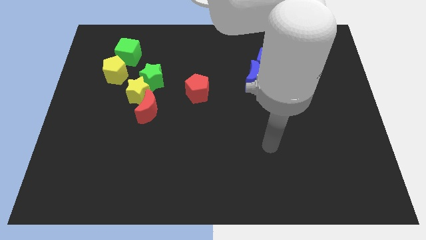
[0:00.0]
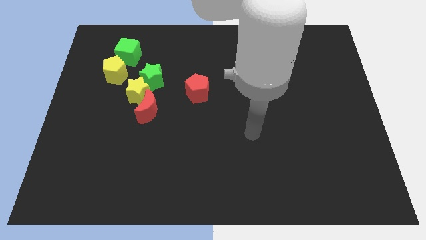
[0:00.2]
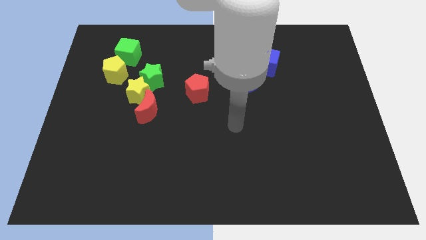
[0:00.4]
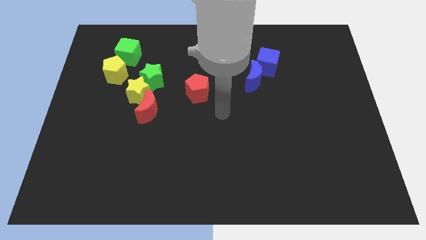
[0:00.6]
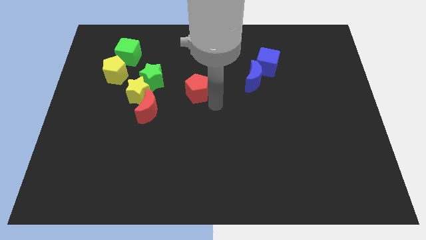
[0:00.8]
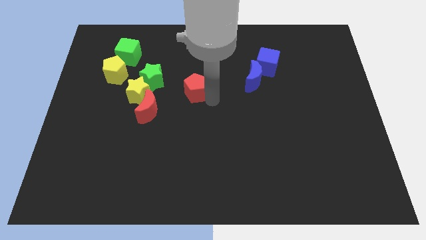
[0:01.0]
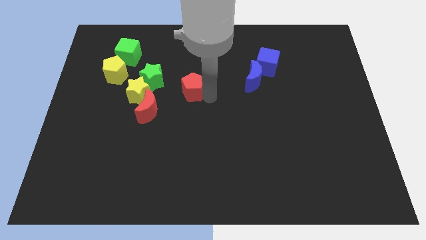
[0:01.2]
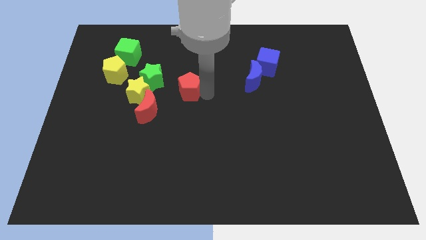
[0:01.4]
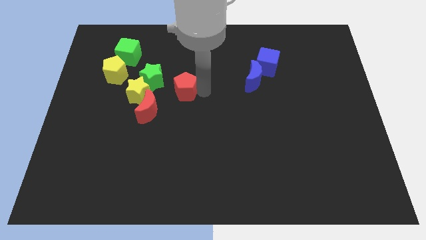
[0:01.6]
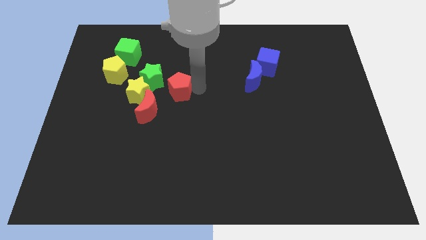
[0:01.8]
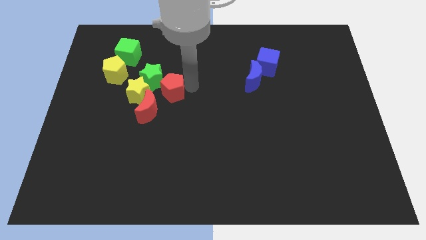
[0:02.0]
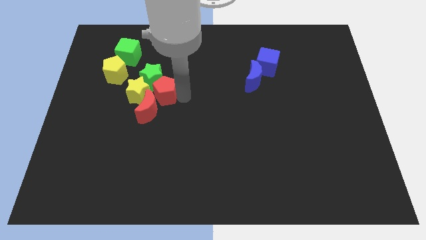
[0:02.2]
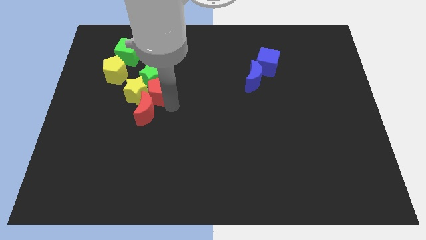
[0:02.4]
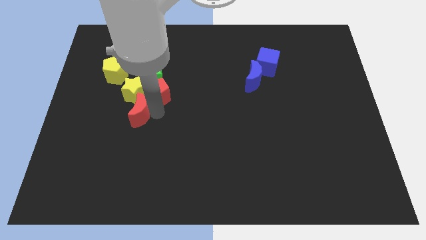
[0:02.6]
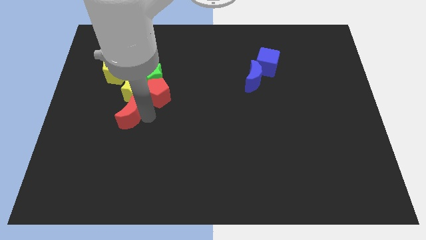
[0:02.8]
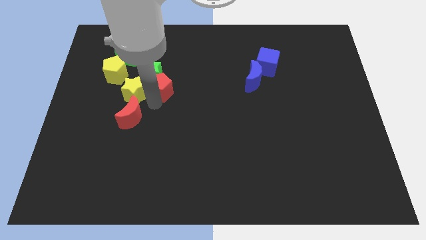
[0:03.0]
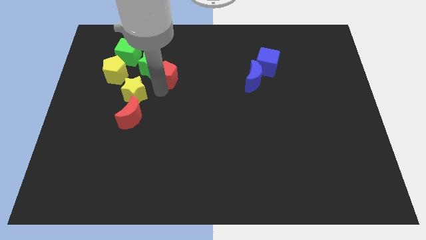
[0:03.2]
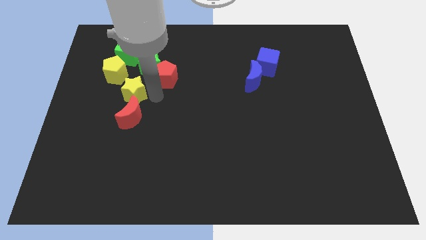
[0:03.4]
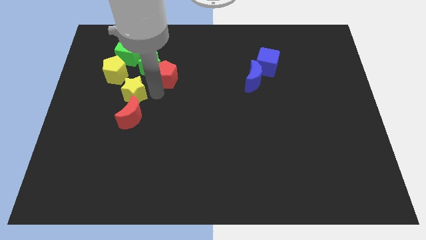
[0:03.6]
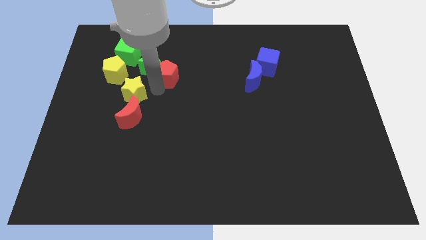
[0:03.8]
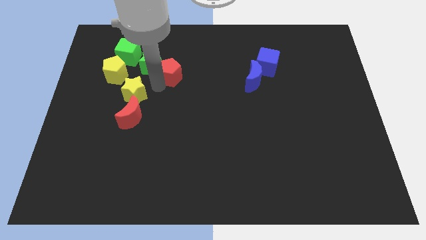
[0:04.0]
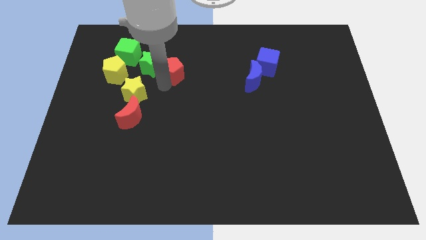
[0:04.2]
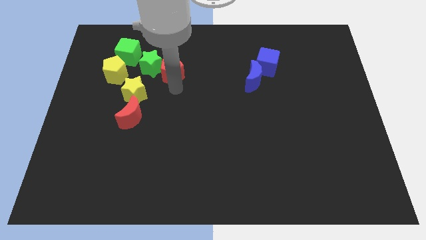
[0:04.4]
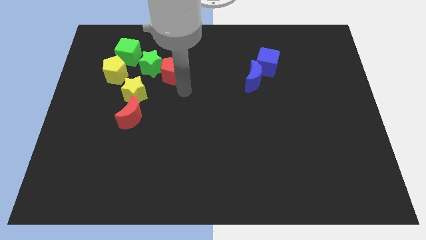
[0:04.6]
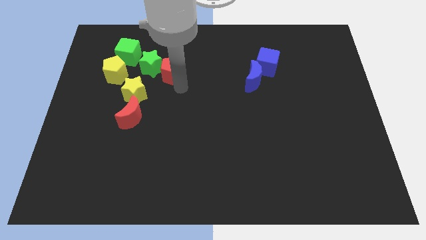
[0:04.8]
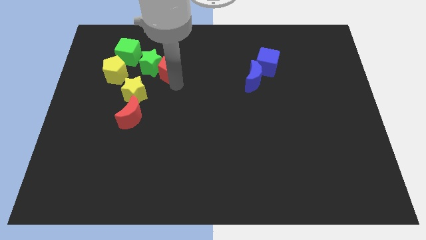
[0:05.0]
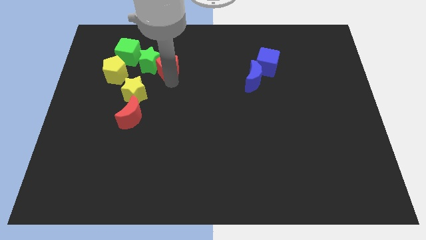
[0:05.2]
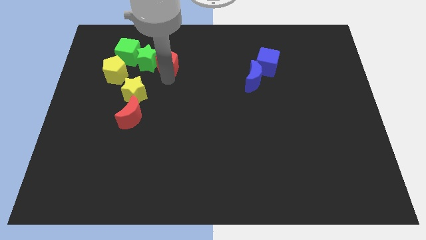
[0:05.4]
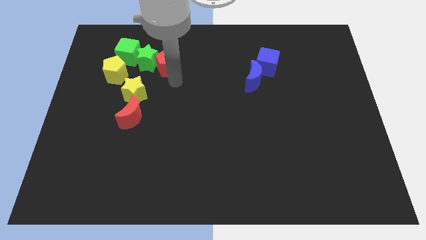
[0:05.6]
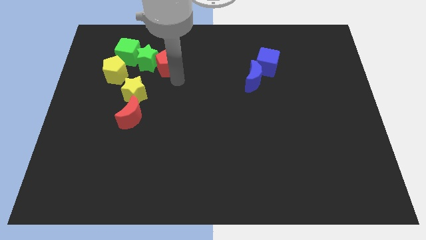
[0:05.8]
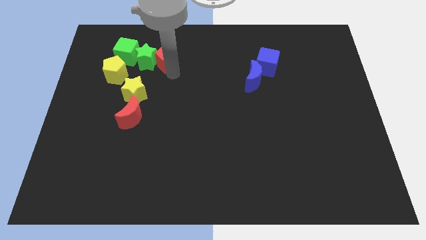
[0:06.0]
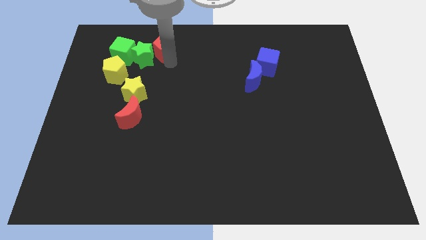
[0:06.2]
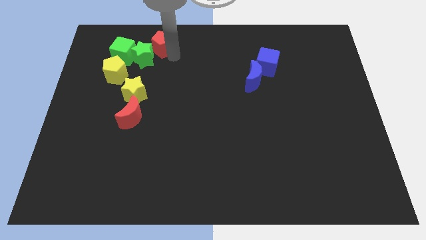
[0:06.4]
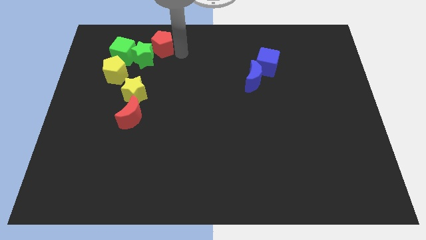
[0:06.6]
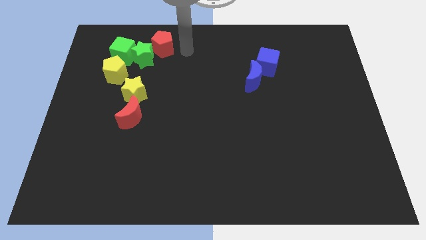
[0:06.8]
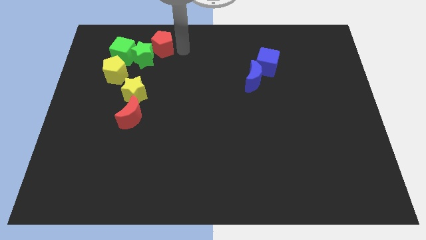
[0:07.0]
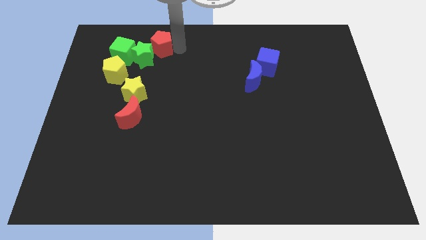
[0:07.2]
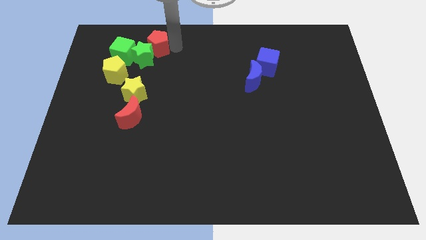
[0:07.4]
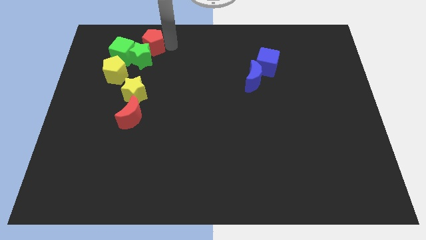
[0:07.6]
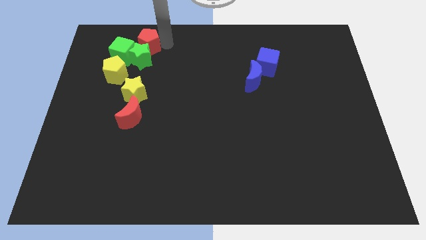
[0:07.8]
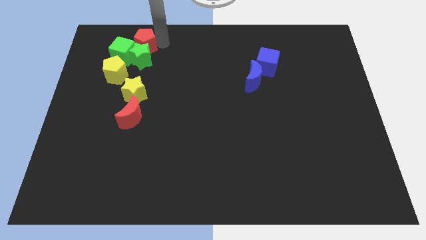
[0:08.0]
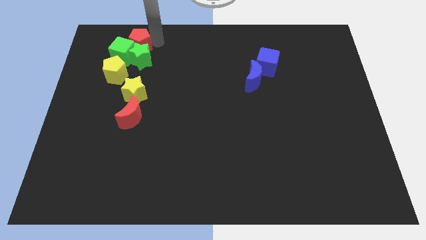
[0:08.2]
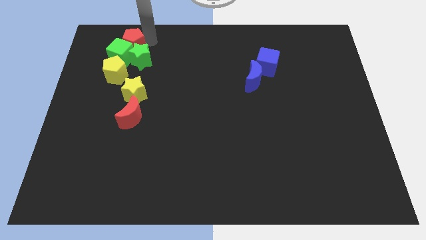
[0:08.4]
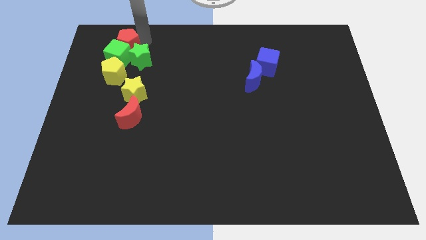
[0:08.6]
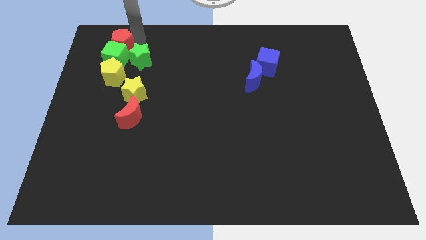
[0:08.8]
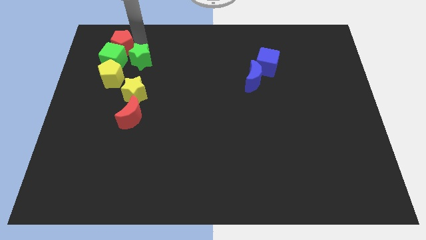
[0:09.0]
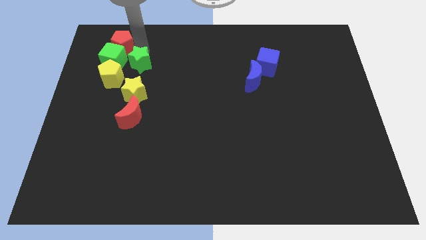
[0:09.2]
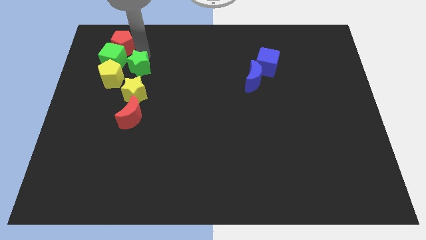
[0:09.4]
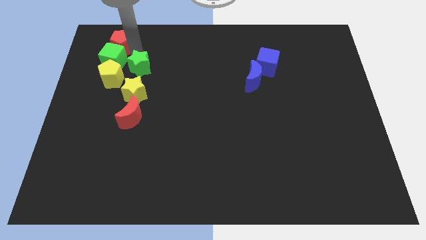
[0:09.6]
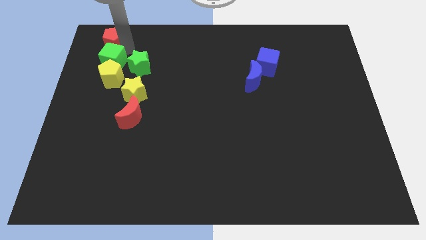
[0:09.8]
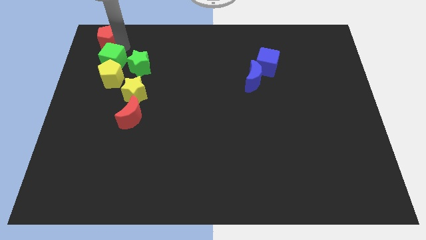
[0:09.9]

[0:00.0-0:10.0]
push the red pentagon to the top left of the board

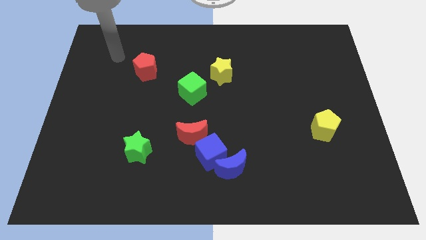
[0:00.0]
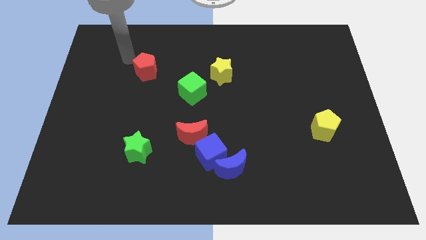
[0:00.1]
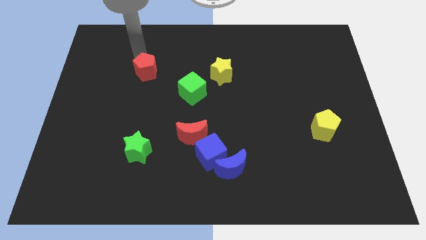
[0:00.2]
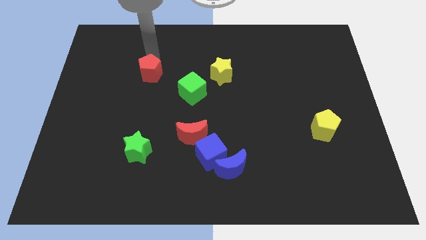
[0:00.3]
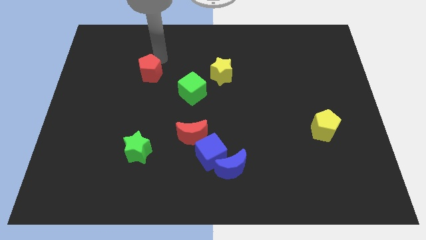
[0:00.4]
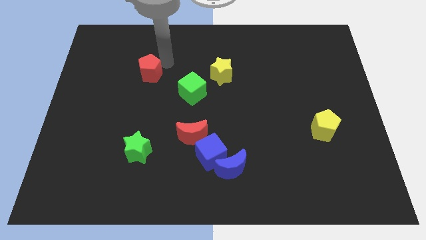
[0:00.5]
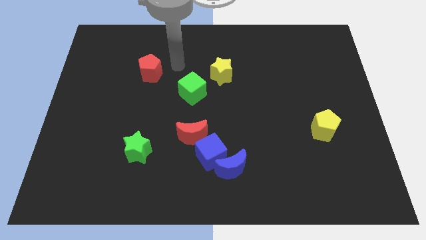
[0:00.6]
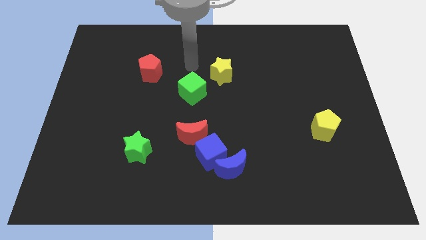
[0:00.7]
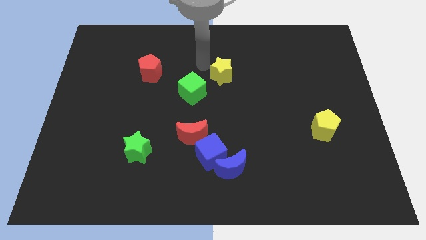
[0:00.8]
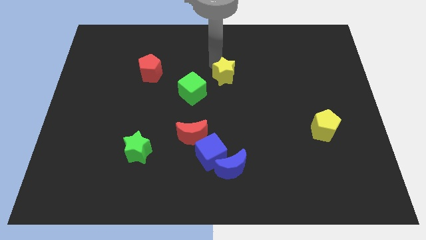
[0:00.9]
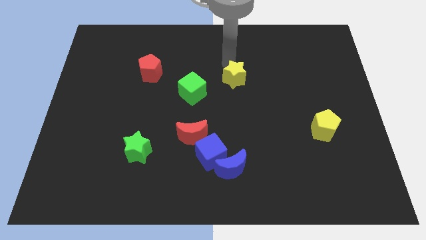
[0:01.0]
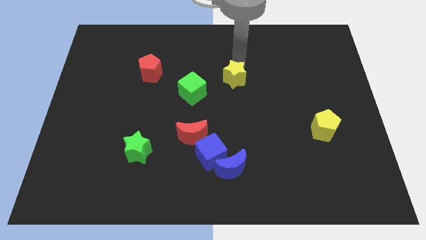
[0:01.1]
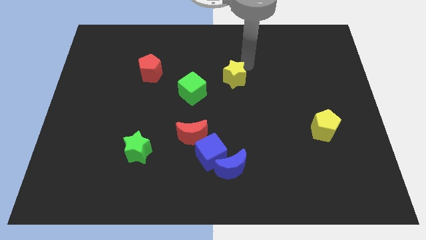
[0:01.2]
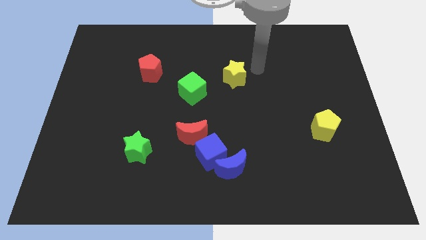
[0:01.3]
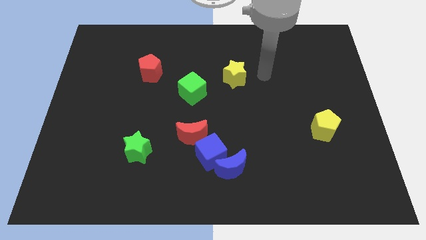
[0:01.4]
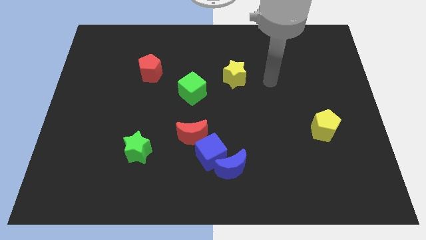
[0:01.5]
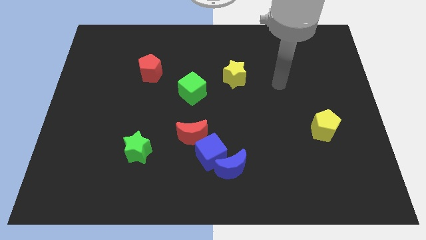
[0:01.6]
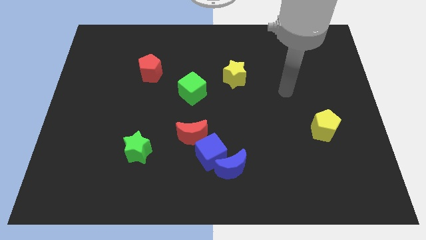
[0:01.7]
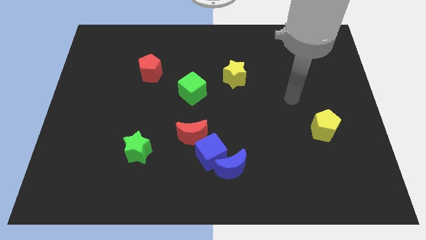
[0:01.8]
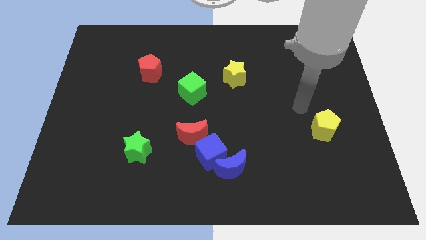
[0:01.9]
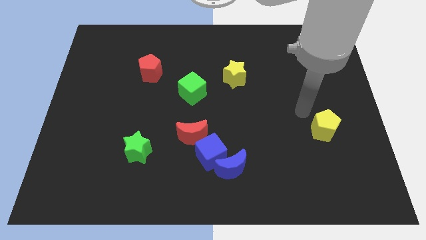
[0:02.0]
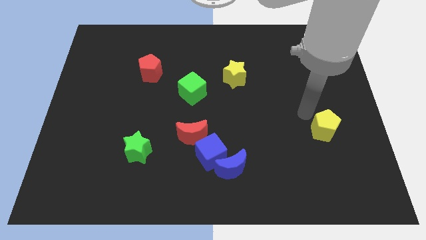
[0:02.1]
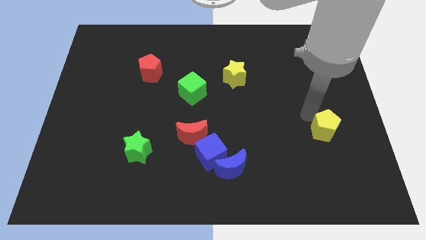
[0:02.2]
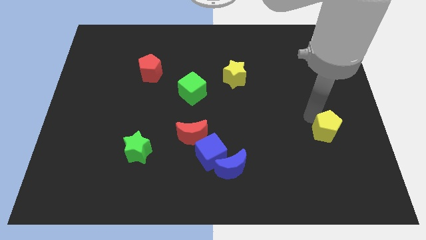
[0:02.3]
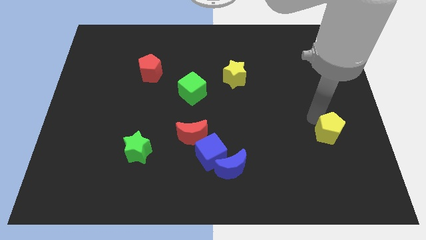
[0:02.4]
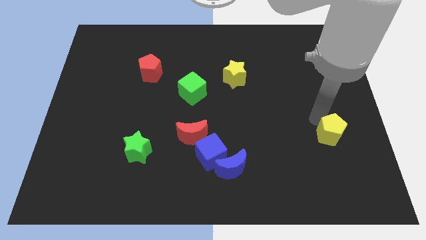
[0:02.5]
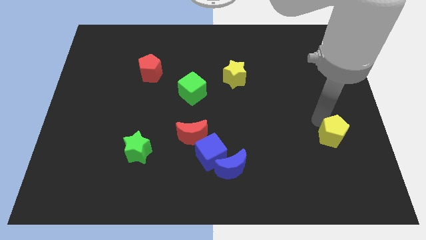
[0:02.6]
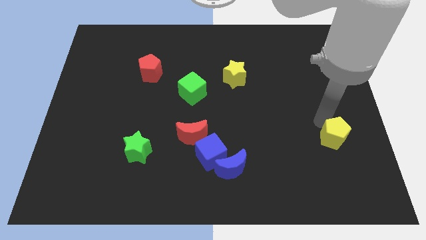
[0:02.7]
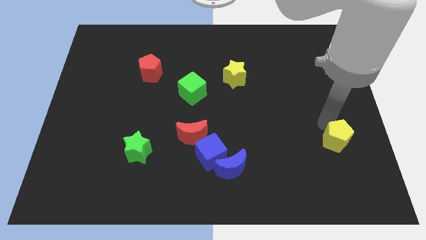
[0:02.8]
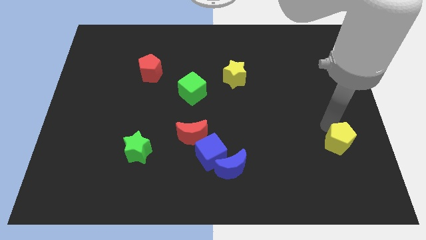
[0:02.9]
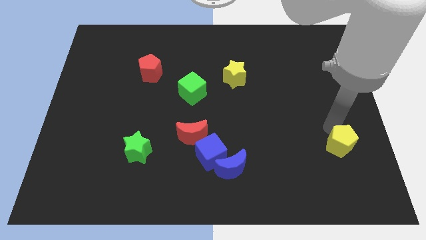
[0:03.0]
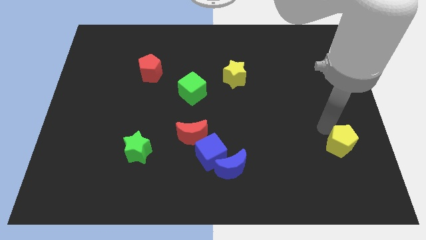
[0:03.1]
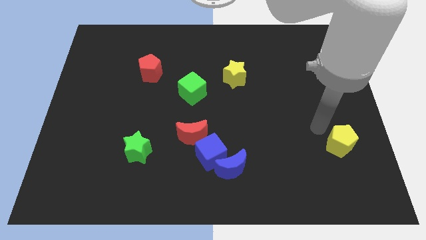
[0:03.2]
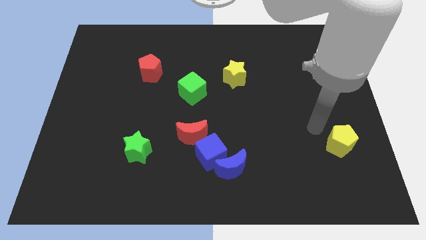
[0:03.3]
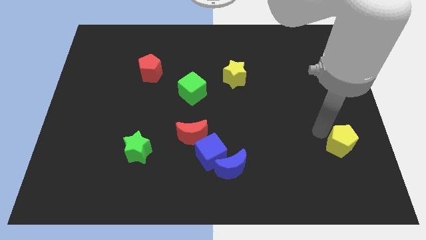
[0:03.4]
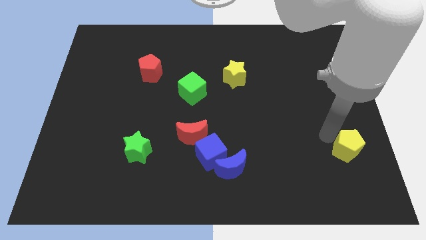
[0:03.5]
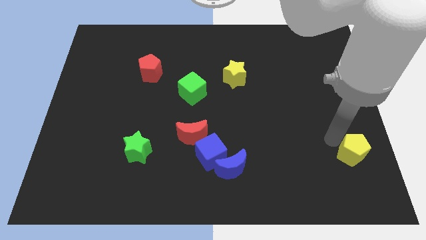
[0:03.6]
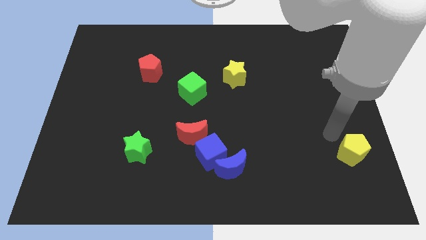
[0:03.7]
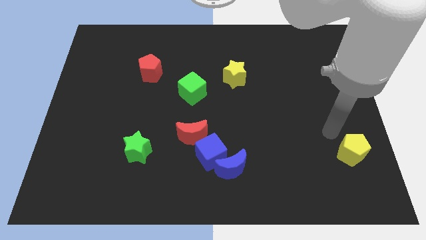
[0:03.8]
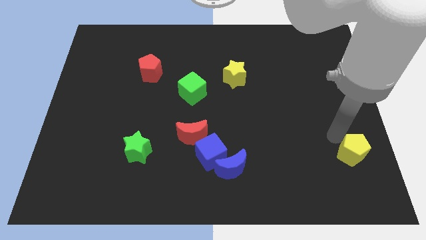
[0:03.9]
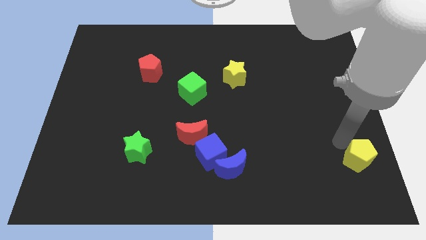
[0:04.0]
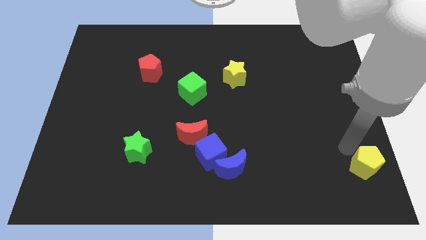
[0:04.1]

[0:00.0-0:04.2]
move the yellow pentagon to the bottom right of the board
